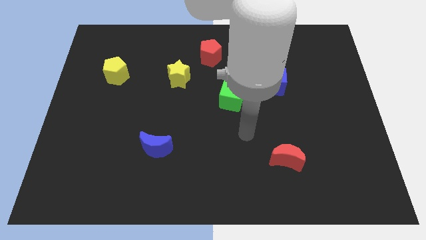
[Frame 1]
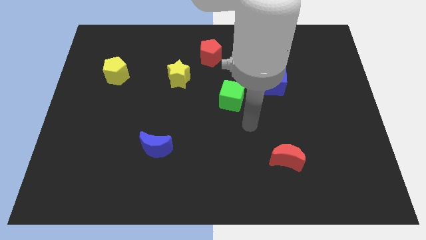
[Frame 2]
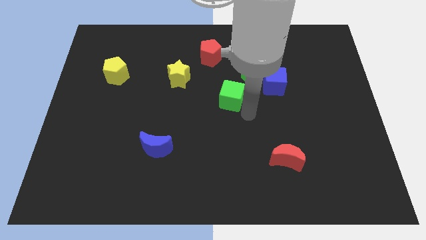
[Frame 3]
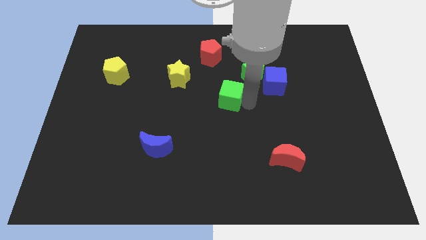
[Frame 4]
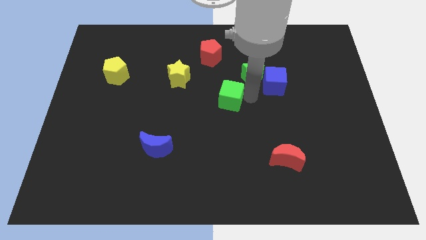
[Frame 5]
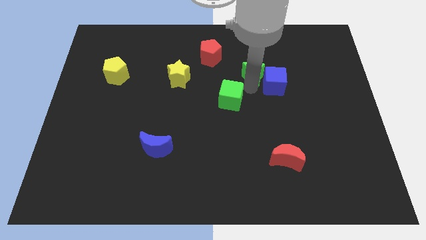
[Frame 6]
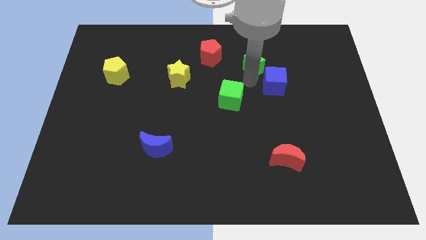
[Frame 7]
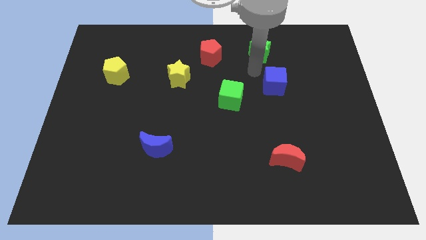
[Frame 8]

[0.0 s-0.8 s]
move the blue cube away from the green star

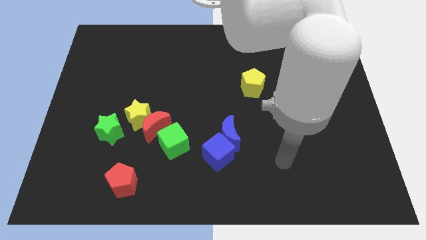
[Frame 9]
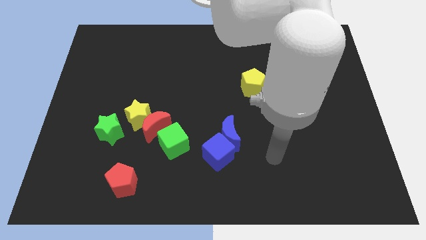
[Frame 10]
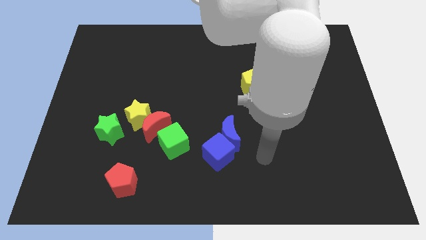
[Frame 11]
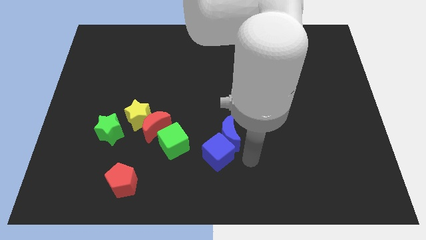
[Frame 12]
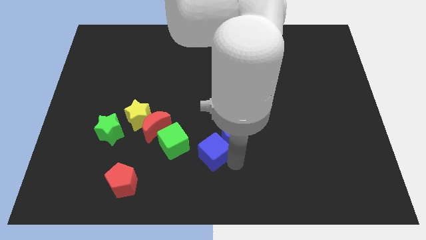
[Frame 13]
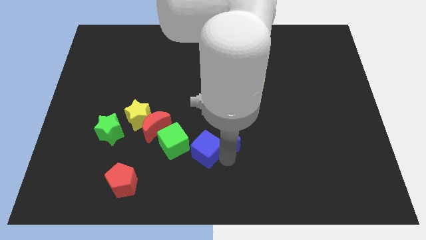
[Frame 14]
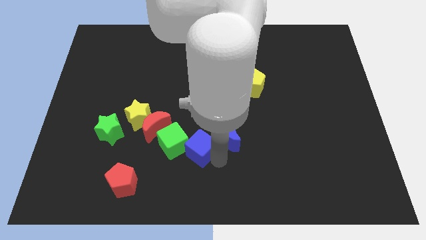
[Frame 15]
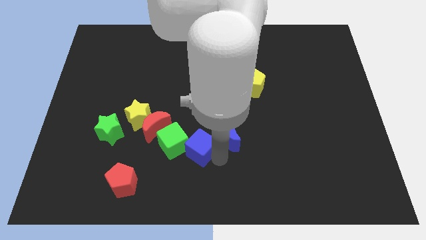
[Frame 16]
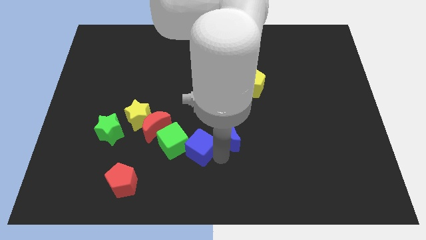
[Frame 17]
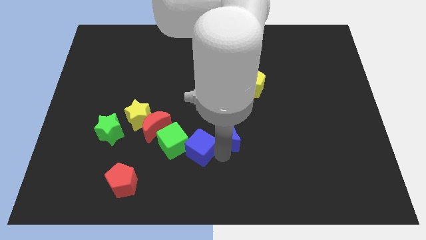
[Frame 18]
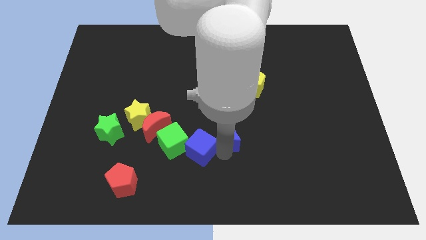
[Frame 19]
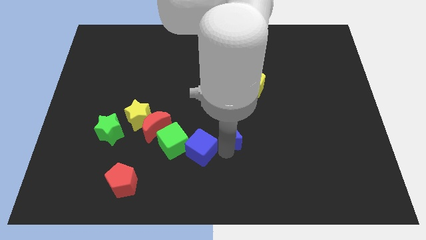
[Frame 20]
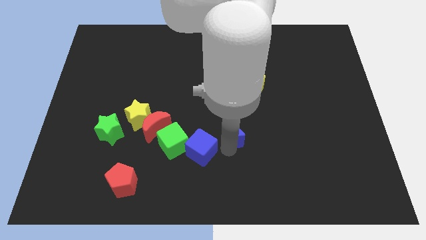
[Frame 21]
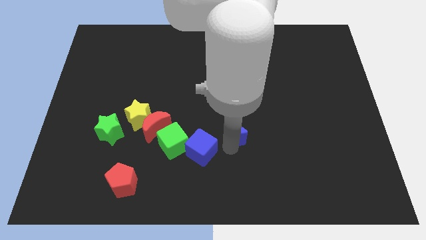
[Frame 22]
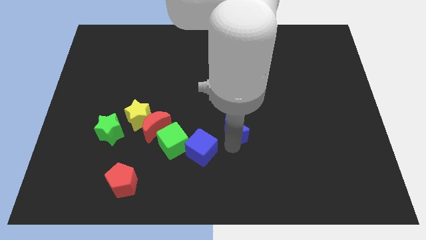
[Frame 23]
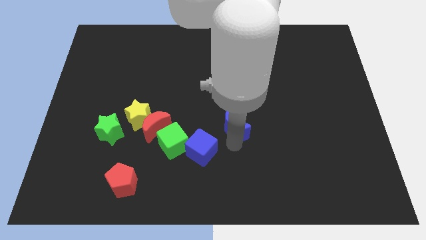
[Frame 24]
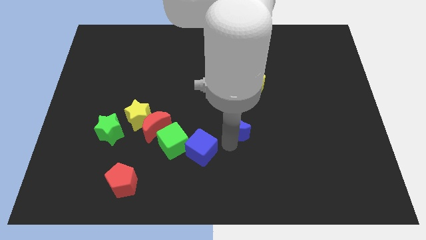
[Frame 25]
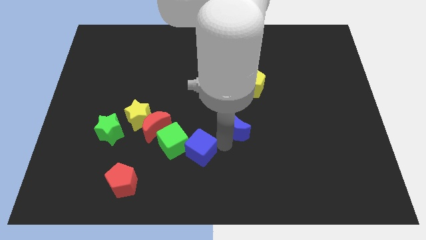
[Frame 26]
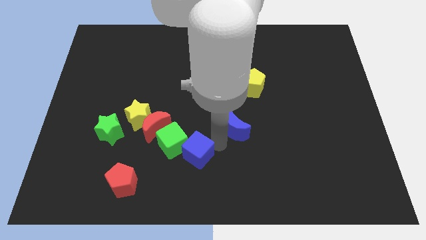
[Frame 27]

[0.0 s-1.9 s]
move the blue moon away from the blue cube

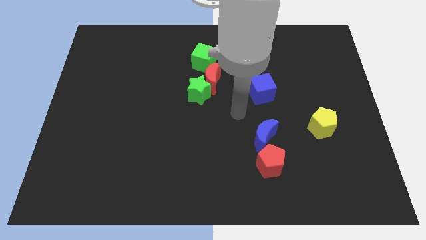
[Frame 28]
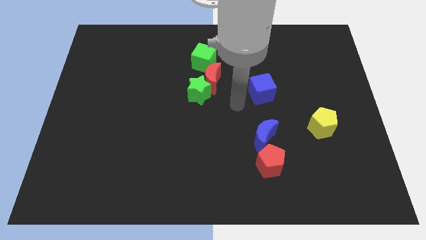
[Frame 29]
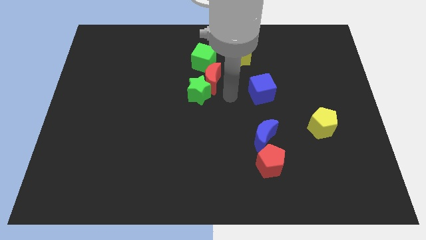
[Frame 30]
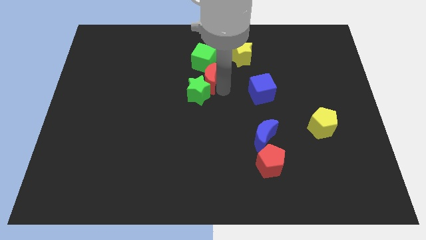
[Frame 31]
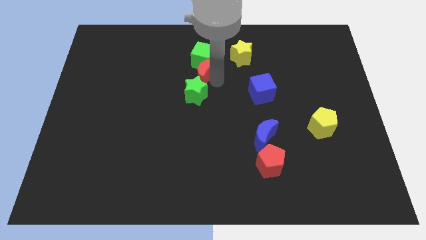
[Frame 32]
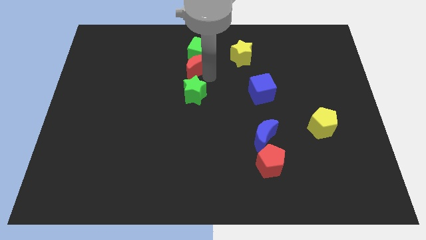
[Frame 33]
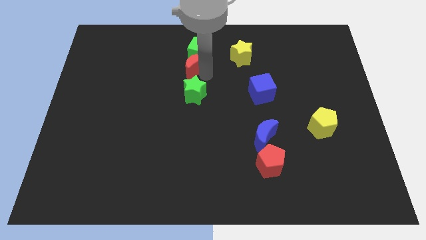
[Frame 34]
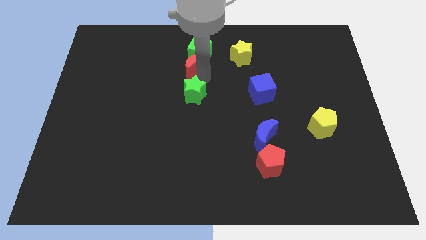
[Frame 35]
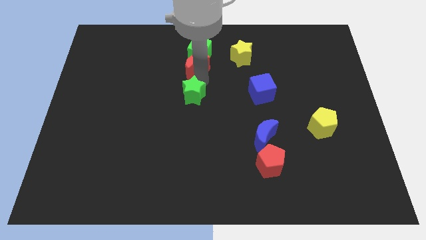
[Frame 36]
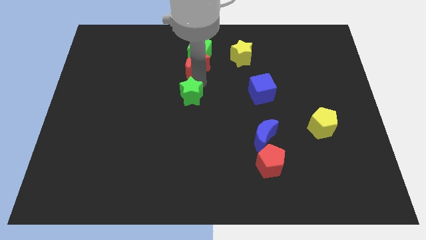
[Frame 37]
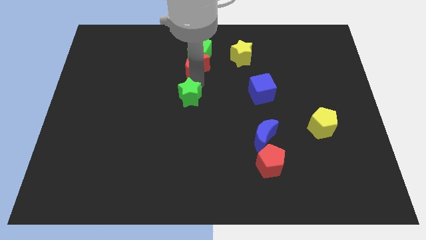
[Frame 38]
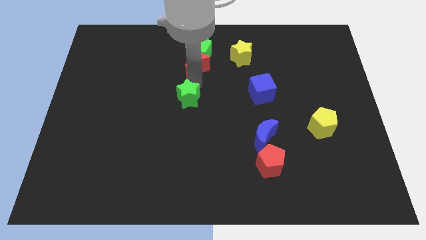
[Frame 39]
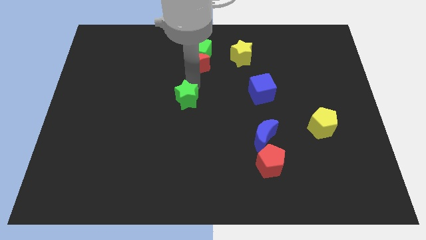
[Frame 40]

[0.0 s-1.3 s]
move the green star away from the red moon

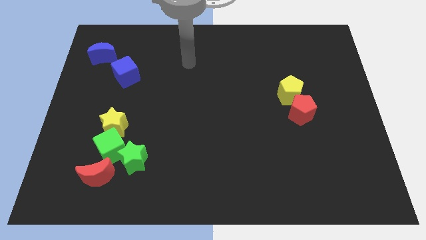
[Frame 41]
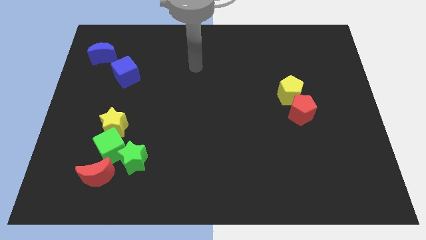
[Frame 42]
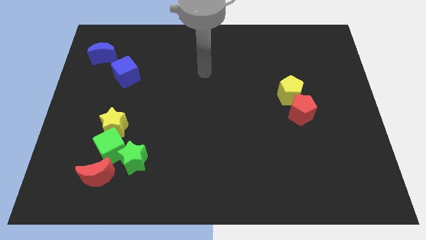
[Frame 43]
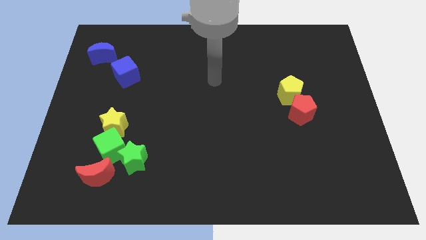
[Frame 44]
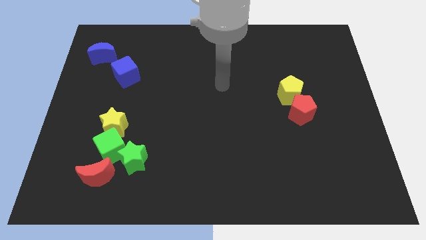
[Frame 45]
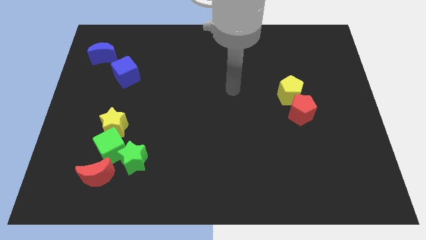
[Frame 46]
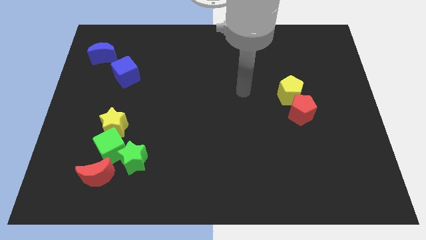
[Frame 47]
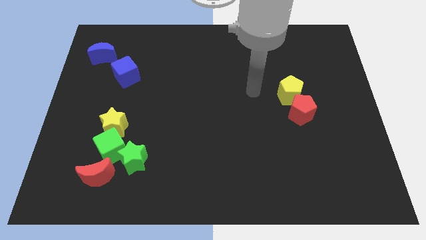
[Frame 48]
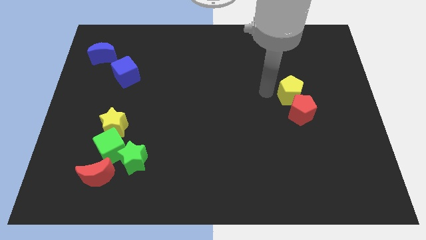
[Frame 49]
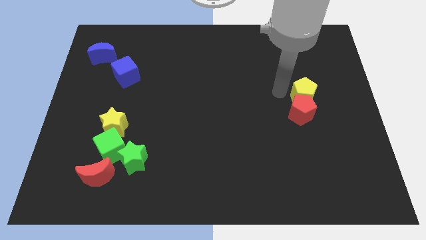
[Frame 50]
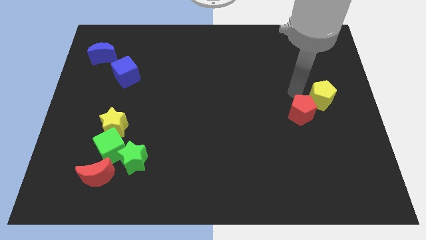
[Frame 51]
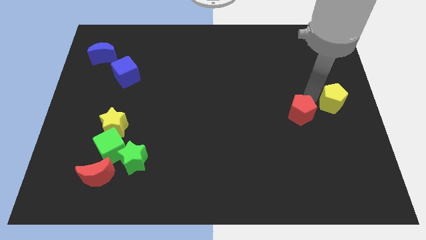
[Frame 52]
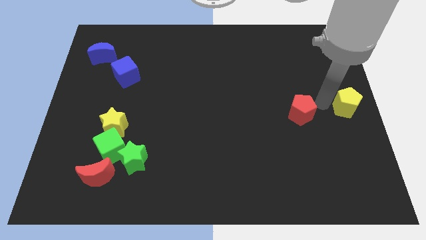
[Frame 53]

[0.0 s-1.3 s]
separate the red pentagon from the yellow pentagon

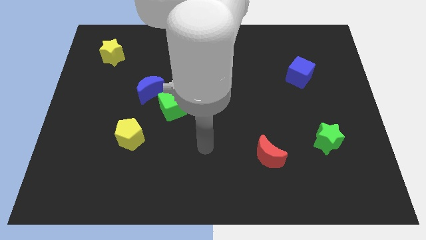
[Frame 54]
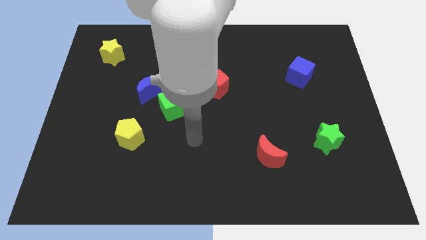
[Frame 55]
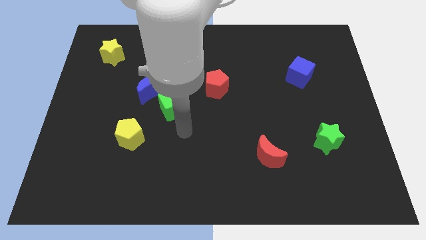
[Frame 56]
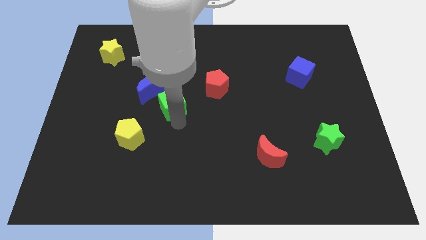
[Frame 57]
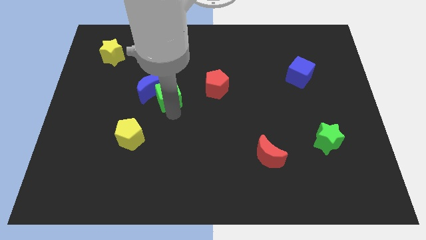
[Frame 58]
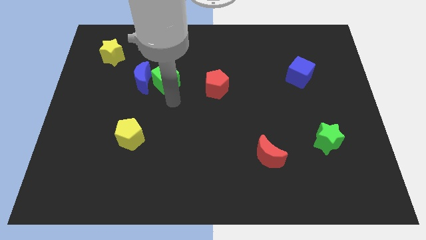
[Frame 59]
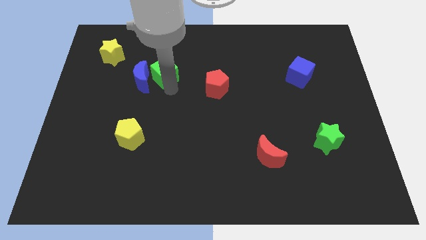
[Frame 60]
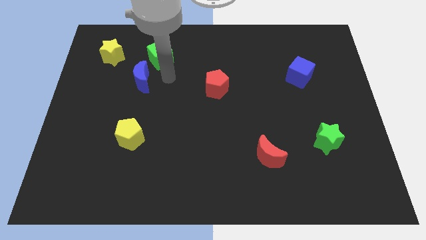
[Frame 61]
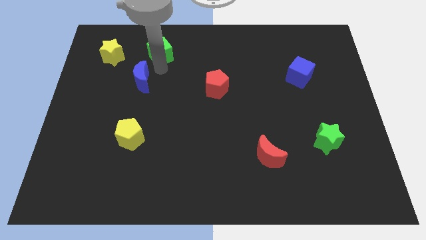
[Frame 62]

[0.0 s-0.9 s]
pull the blue moon apart from the green cube

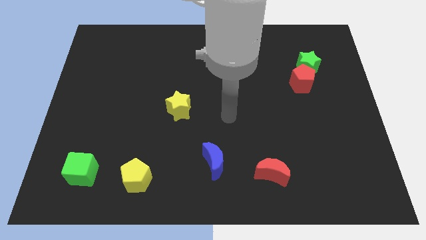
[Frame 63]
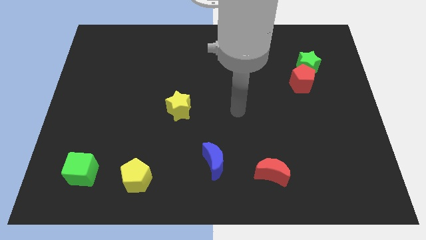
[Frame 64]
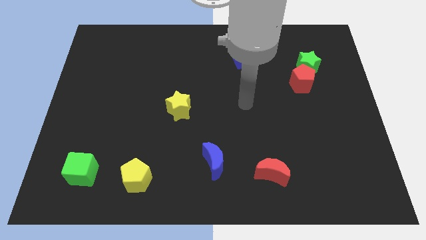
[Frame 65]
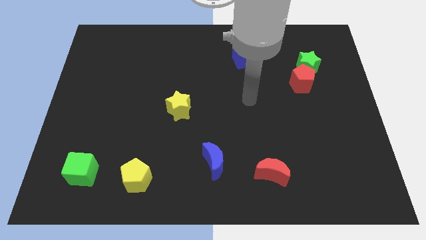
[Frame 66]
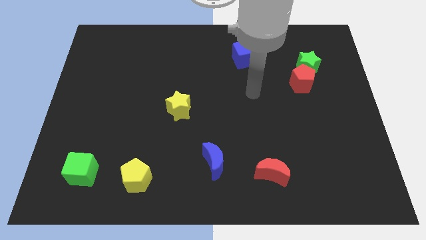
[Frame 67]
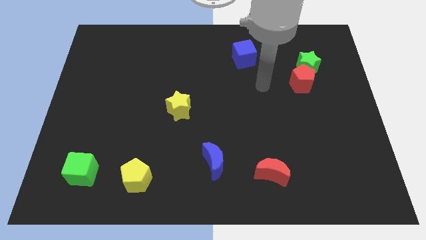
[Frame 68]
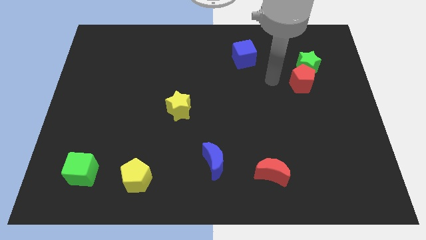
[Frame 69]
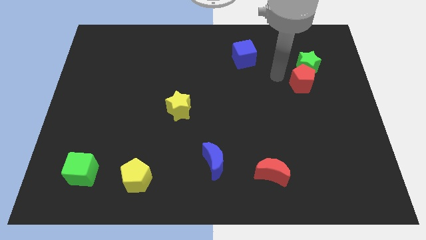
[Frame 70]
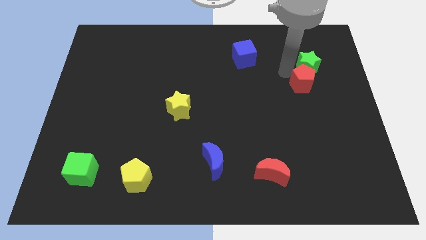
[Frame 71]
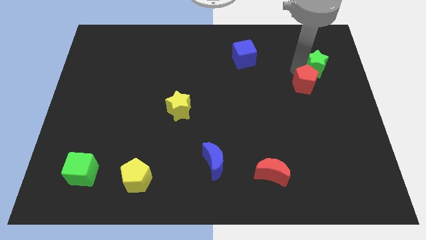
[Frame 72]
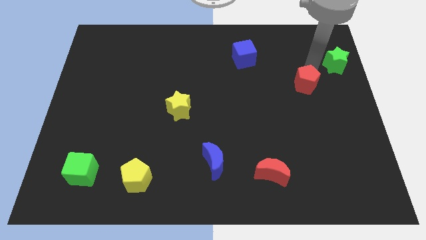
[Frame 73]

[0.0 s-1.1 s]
pull the red pentagon apart from the green star

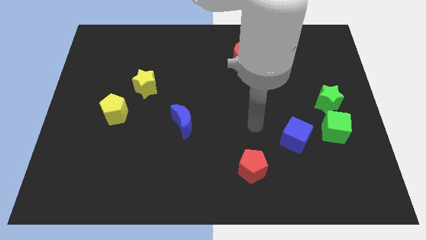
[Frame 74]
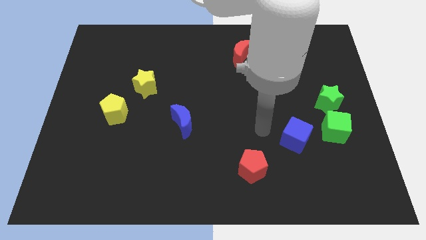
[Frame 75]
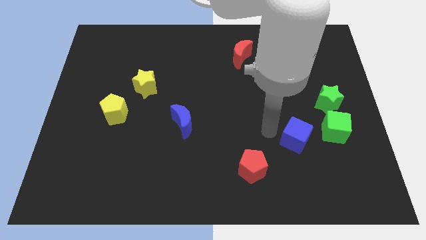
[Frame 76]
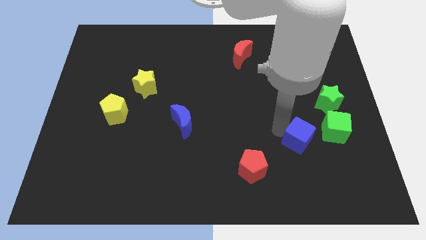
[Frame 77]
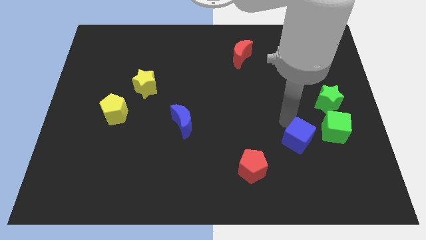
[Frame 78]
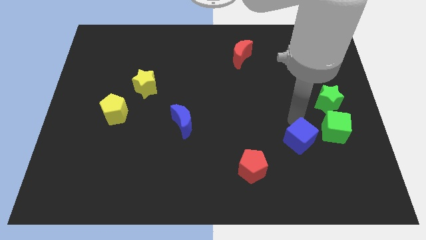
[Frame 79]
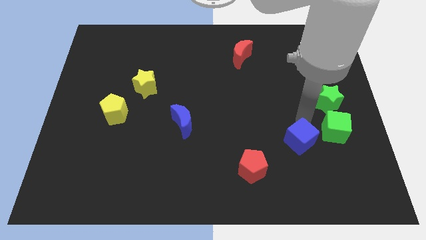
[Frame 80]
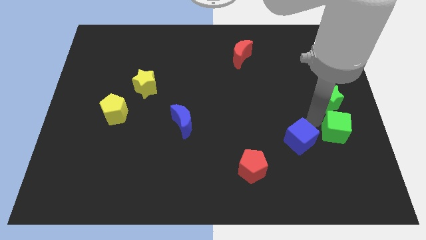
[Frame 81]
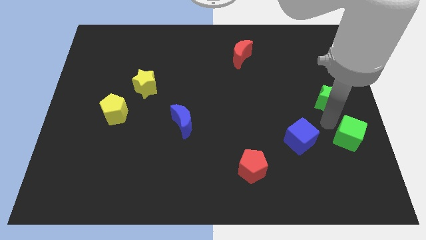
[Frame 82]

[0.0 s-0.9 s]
pull the green star apart from the green cube

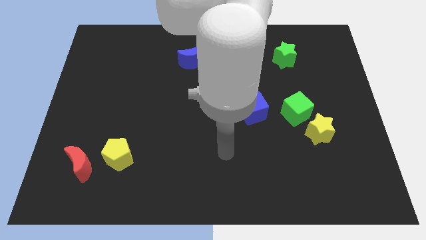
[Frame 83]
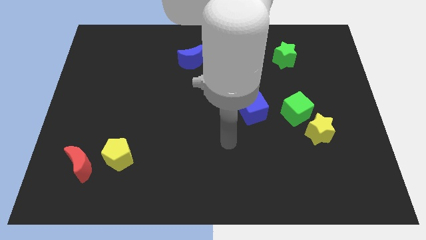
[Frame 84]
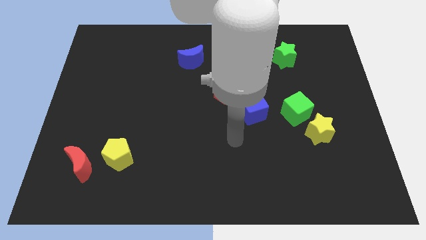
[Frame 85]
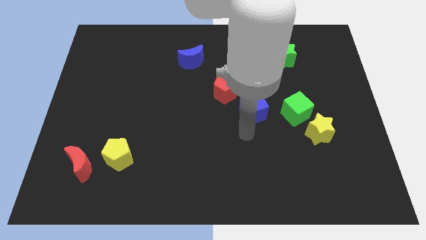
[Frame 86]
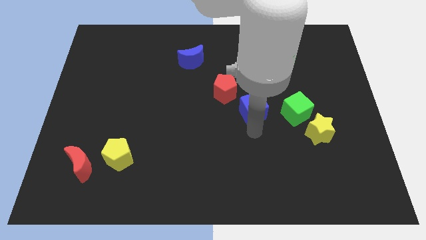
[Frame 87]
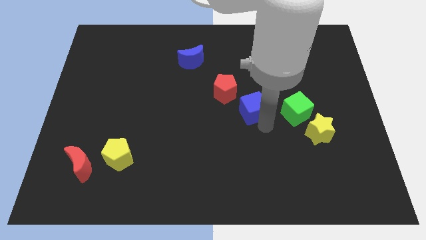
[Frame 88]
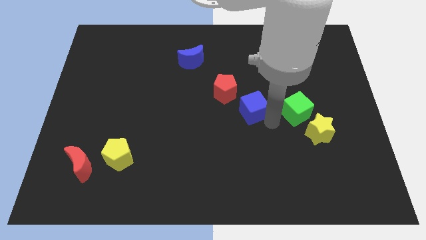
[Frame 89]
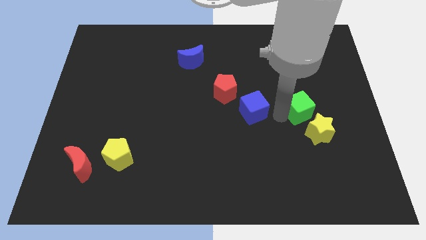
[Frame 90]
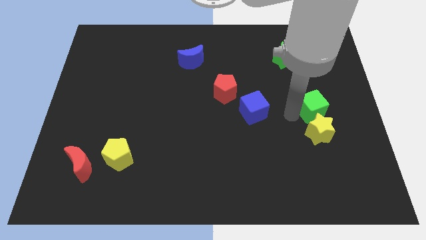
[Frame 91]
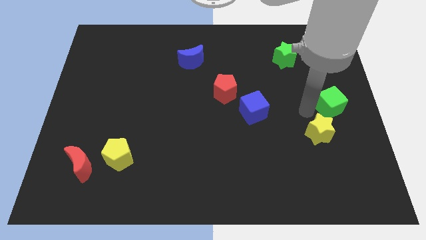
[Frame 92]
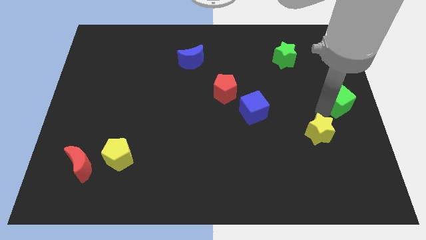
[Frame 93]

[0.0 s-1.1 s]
pull the yellow star apart from the green cube
